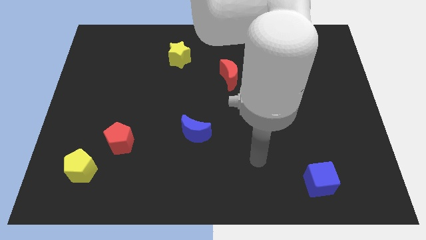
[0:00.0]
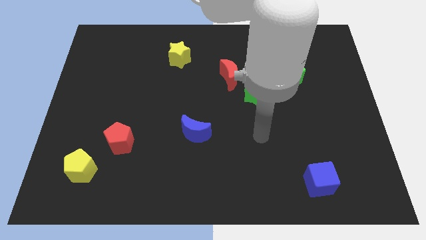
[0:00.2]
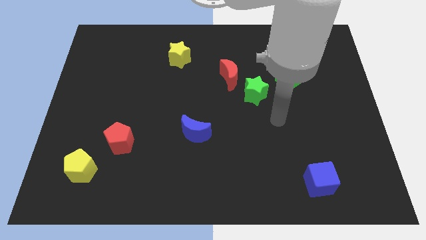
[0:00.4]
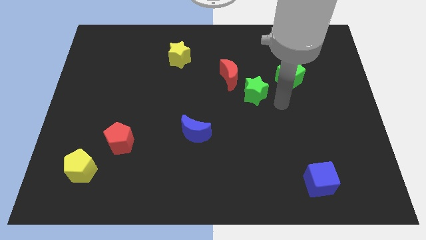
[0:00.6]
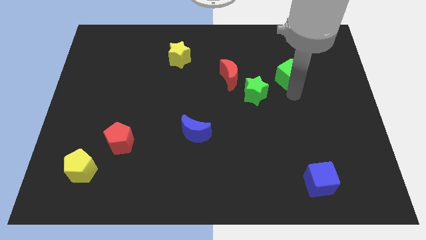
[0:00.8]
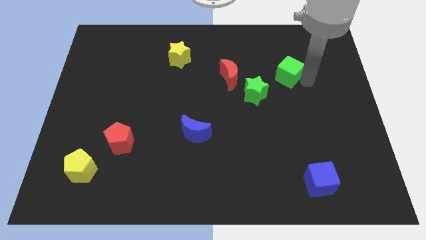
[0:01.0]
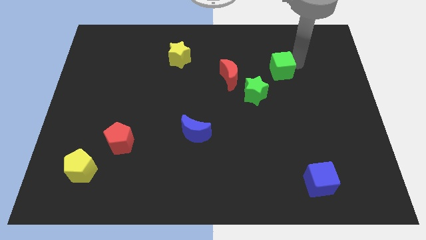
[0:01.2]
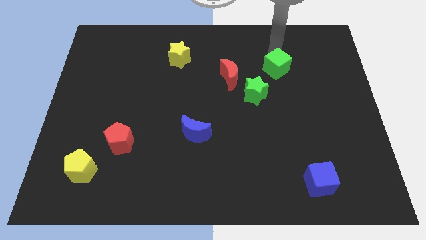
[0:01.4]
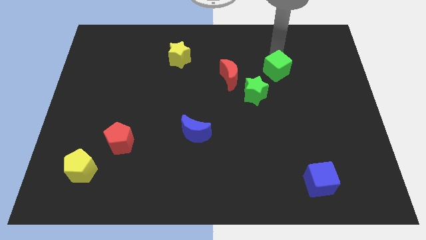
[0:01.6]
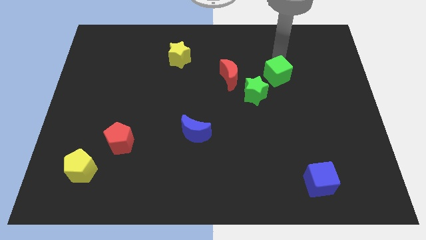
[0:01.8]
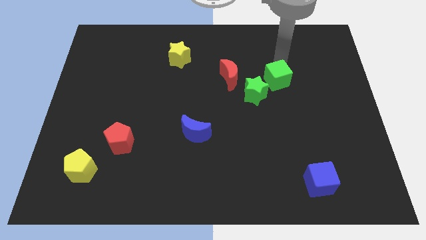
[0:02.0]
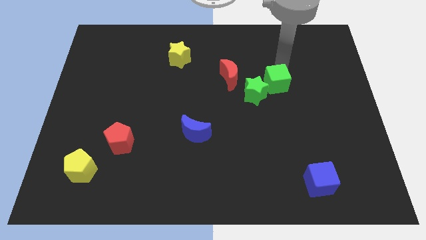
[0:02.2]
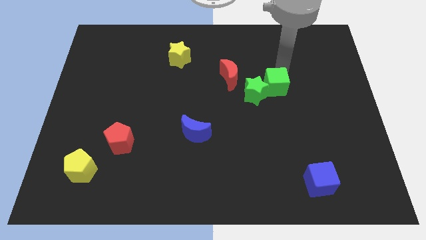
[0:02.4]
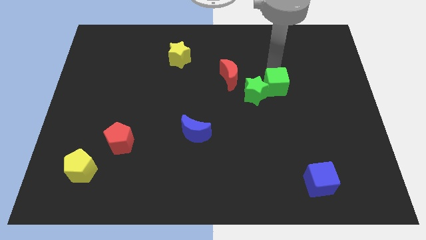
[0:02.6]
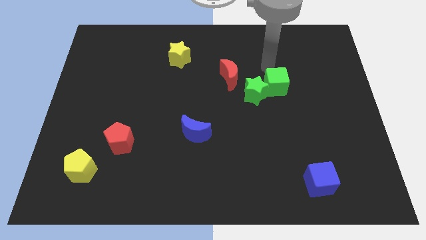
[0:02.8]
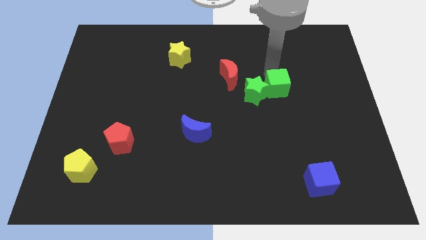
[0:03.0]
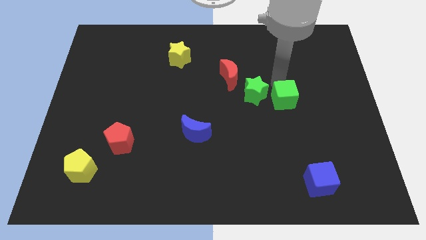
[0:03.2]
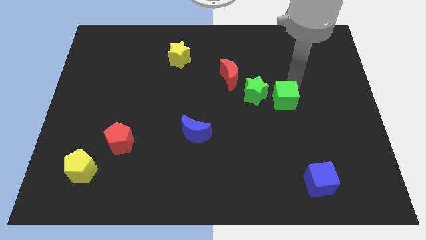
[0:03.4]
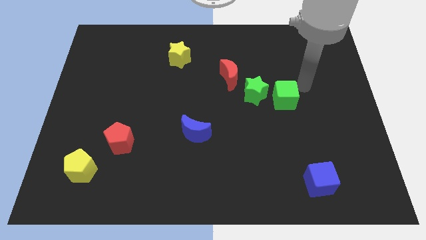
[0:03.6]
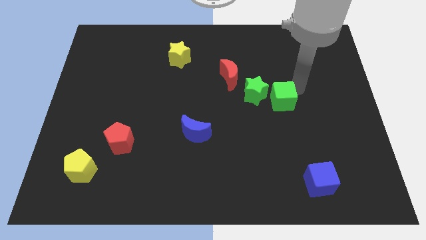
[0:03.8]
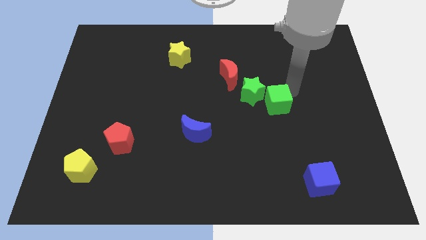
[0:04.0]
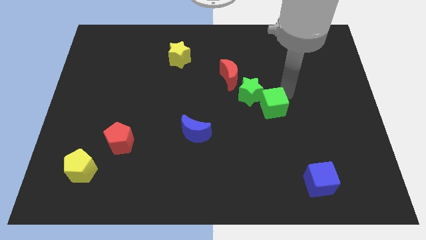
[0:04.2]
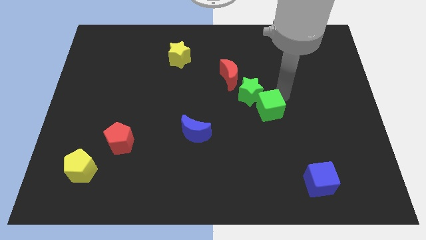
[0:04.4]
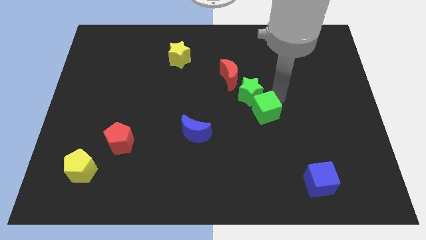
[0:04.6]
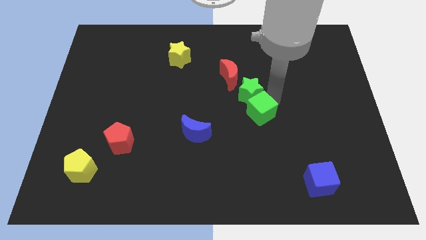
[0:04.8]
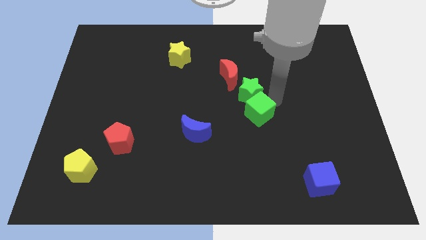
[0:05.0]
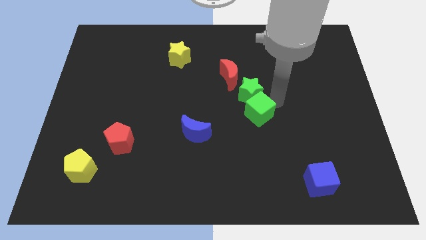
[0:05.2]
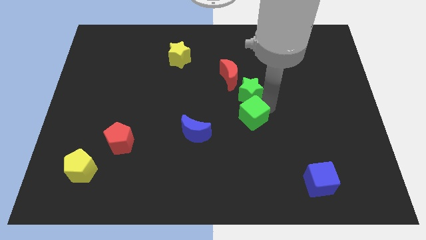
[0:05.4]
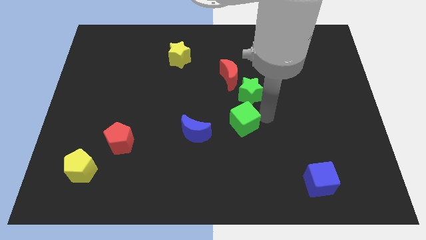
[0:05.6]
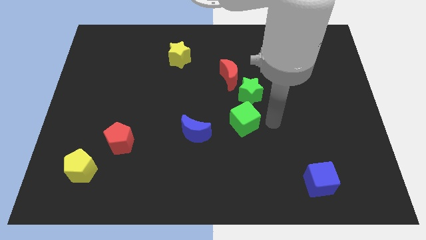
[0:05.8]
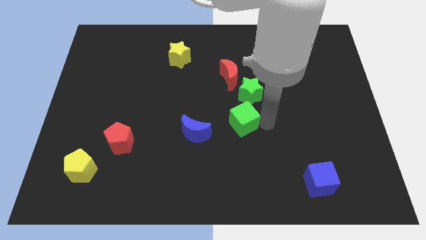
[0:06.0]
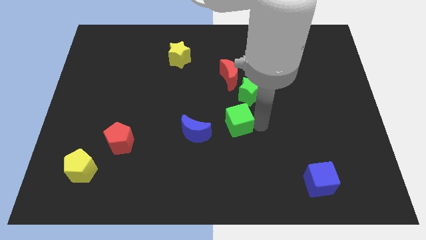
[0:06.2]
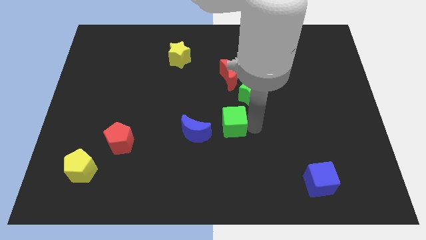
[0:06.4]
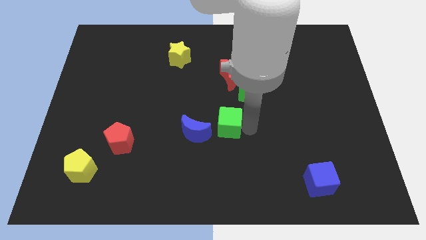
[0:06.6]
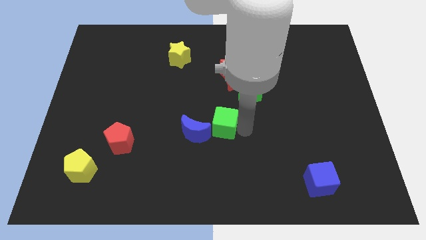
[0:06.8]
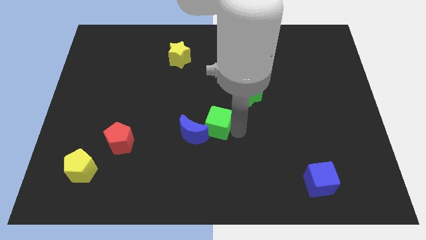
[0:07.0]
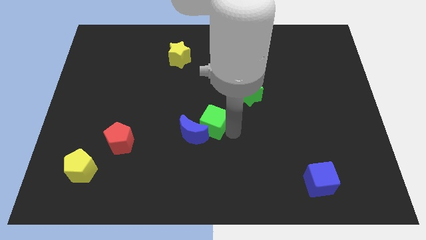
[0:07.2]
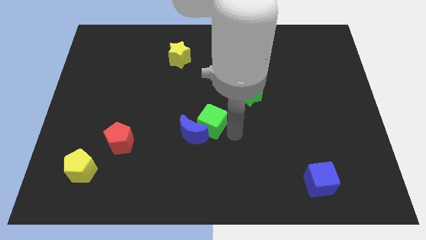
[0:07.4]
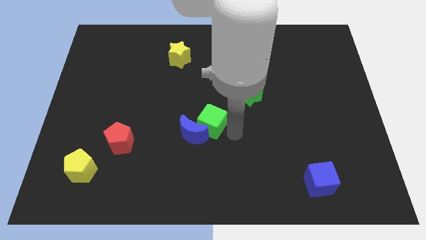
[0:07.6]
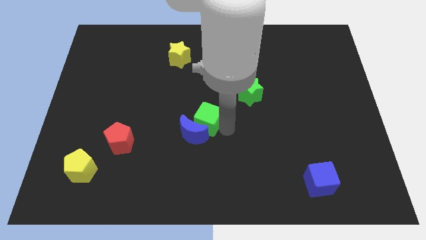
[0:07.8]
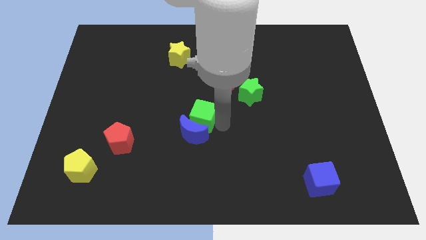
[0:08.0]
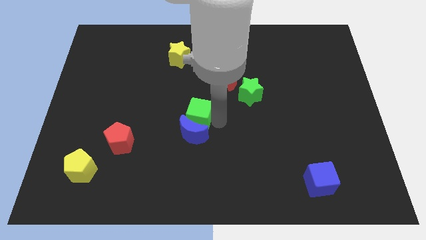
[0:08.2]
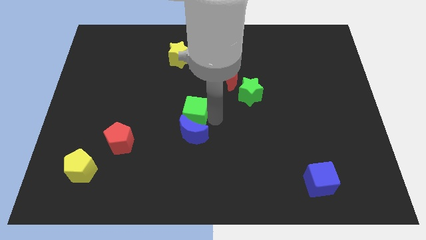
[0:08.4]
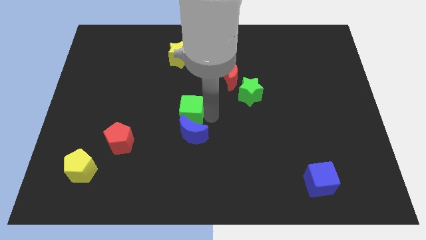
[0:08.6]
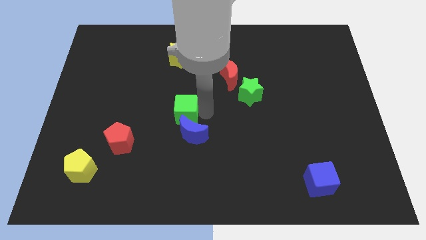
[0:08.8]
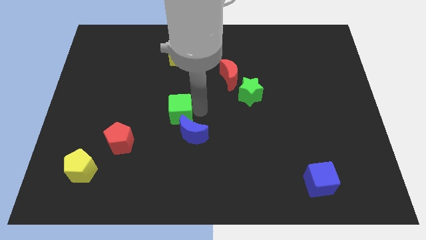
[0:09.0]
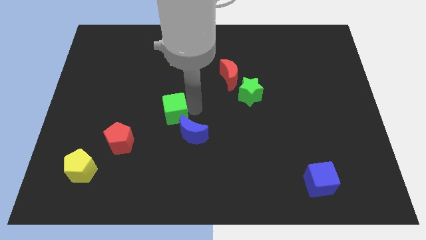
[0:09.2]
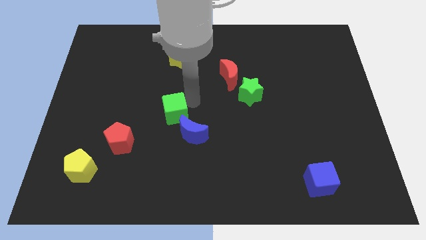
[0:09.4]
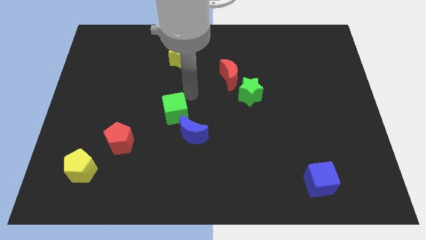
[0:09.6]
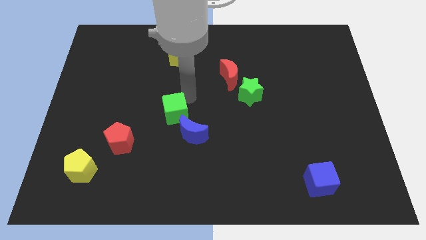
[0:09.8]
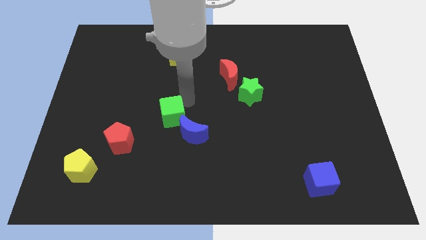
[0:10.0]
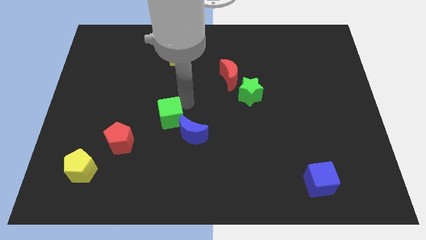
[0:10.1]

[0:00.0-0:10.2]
move the green cube to the left of the blue moon

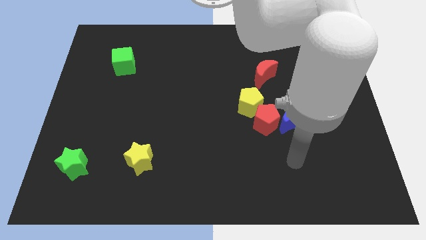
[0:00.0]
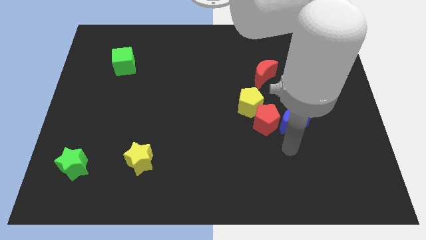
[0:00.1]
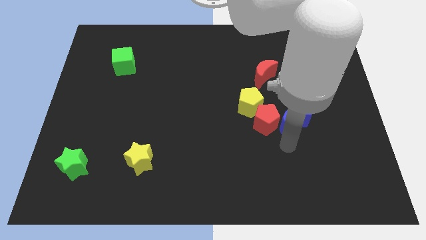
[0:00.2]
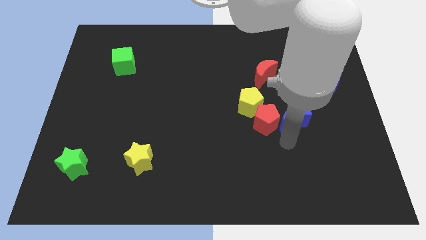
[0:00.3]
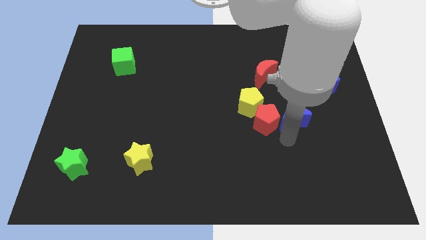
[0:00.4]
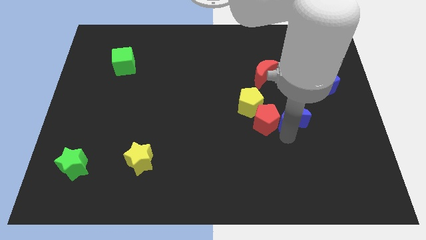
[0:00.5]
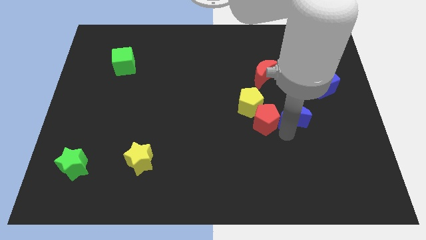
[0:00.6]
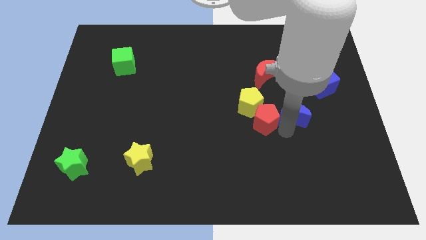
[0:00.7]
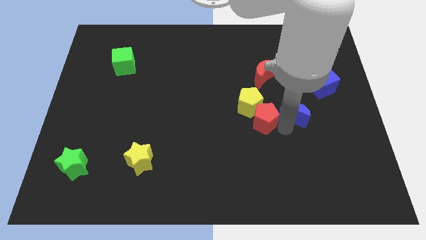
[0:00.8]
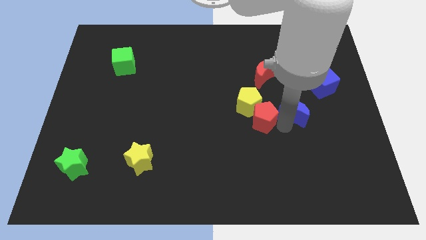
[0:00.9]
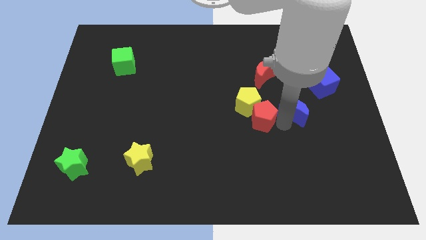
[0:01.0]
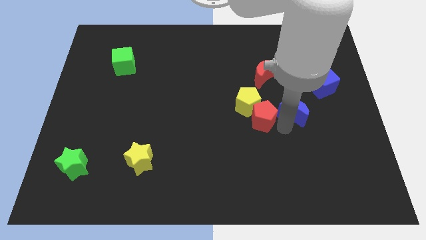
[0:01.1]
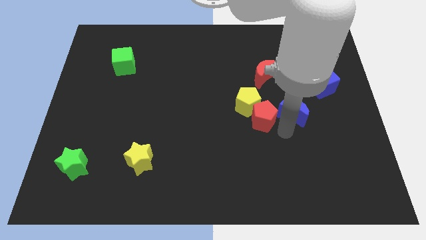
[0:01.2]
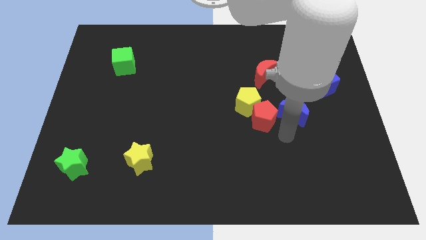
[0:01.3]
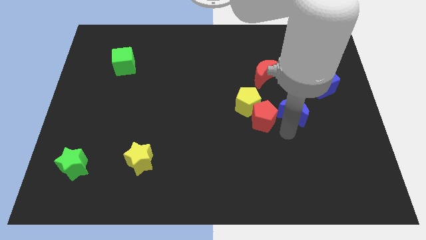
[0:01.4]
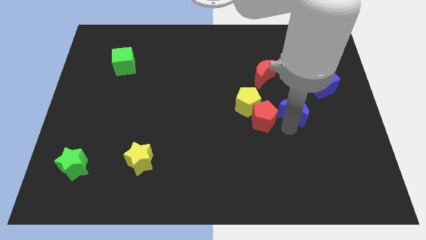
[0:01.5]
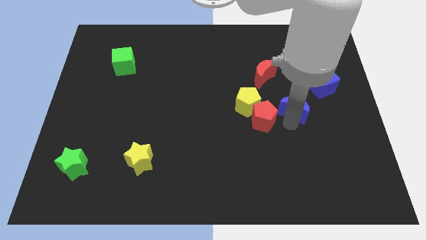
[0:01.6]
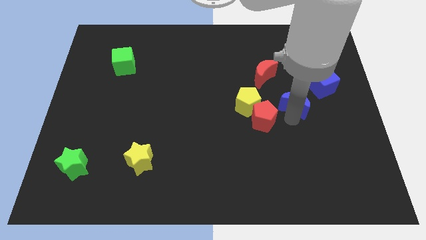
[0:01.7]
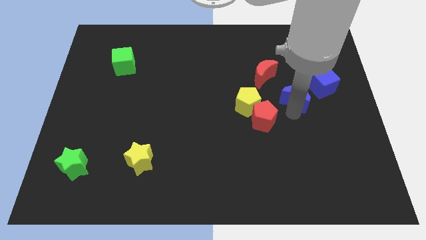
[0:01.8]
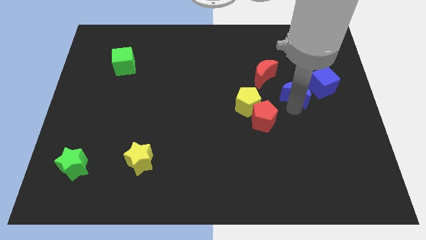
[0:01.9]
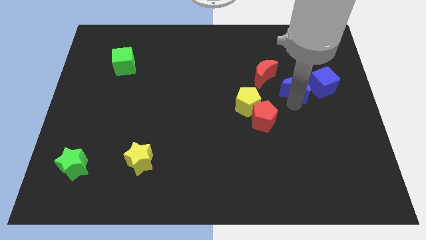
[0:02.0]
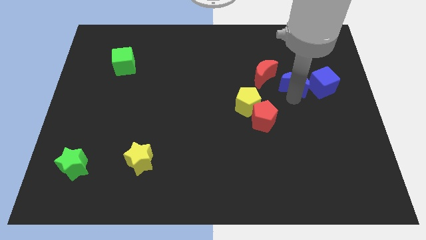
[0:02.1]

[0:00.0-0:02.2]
slide the blue moon to the right of the red moon

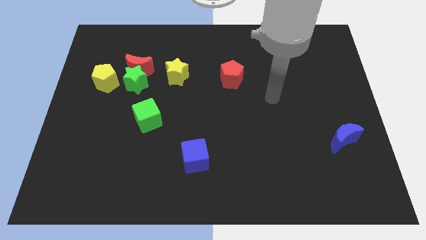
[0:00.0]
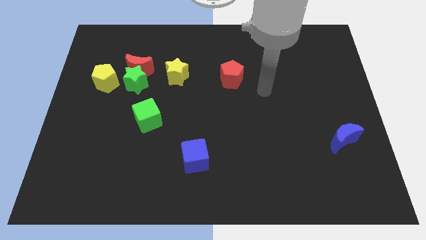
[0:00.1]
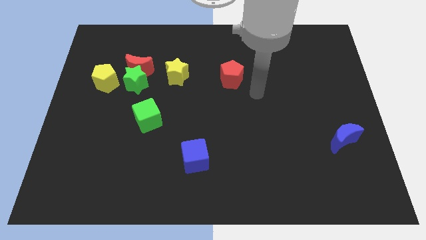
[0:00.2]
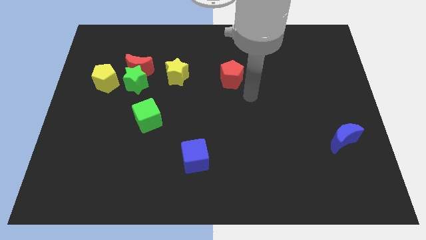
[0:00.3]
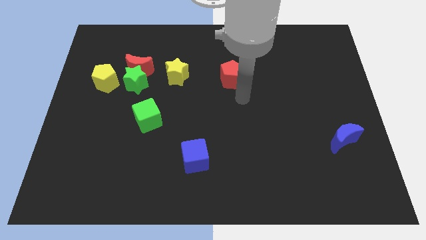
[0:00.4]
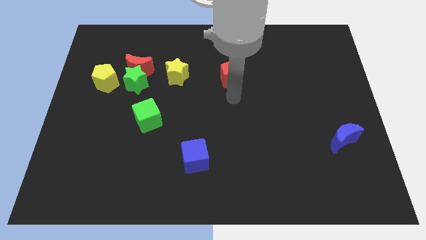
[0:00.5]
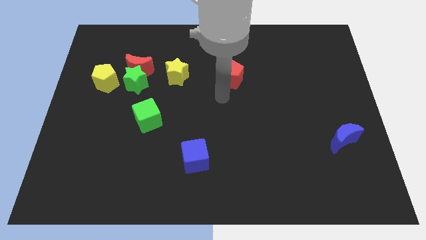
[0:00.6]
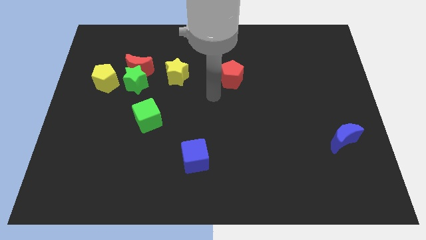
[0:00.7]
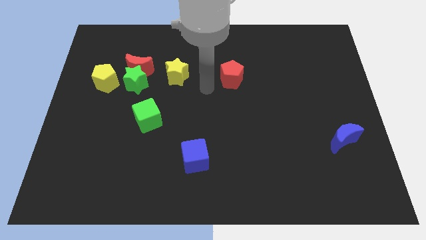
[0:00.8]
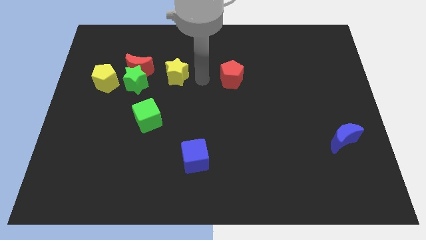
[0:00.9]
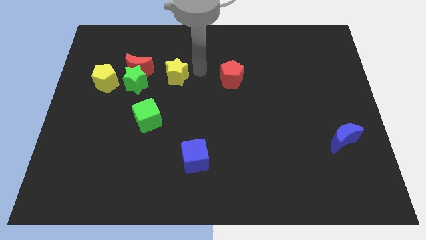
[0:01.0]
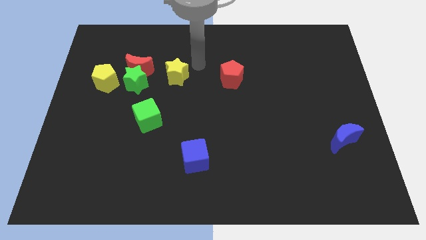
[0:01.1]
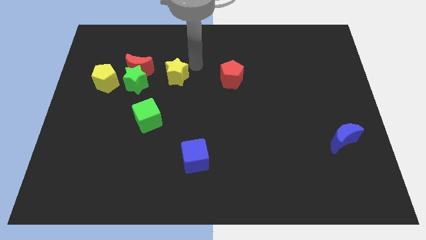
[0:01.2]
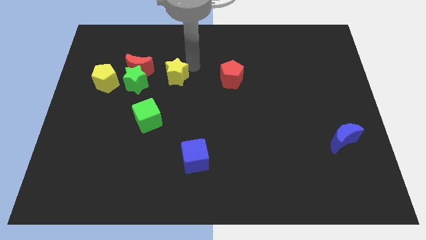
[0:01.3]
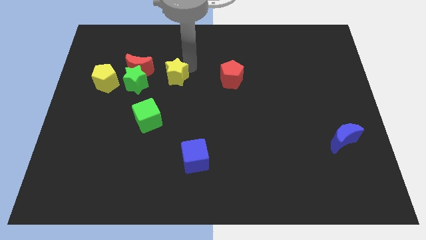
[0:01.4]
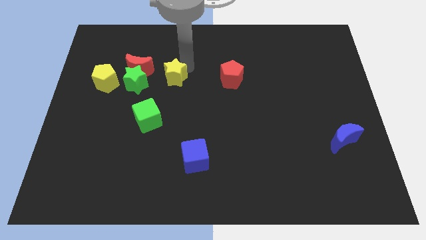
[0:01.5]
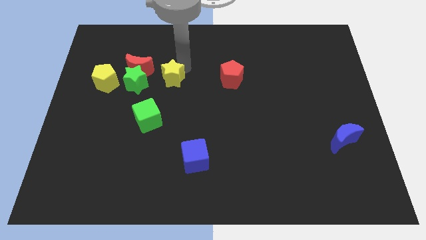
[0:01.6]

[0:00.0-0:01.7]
move the yellow star diagonally down and to the right of the red moon
